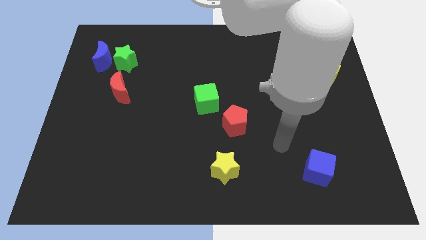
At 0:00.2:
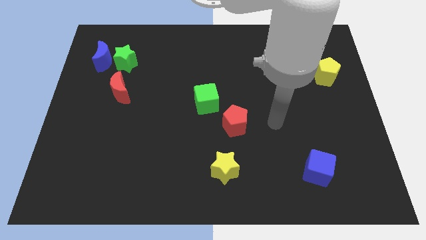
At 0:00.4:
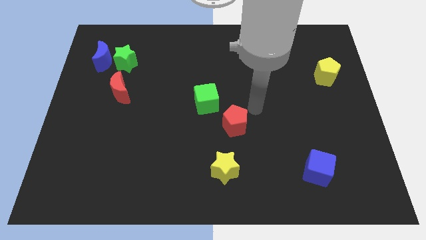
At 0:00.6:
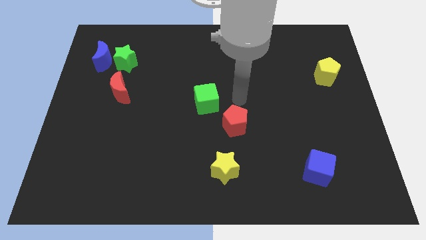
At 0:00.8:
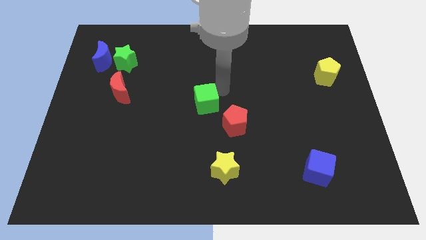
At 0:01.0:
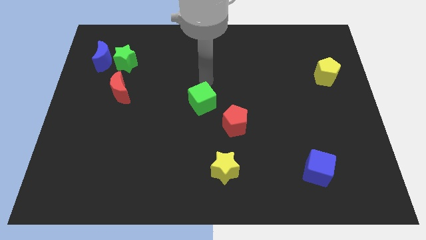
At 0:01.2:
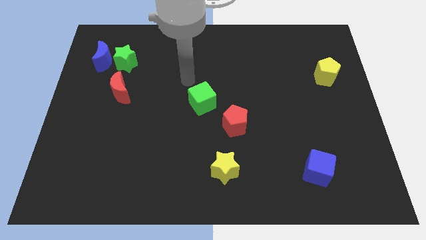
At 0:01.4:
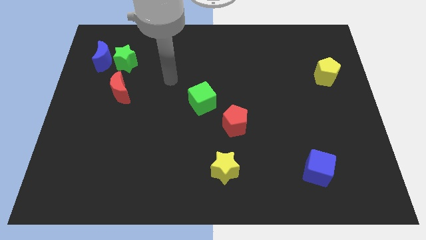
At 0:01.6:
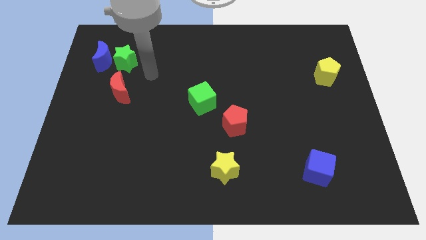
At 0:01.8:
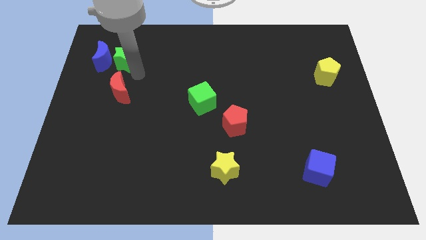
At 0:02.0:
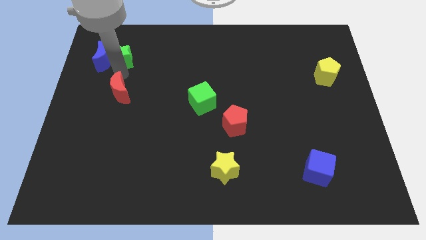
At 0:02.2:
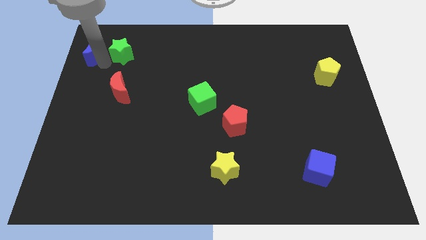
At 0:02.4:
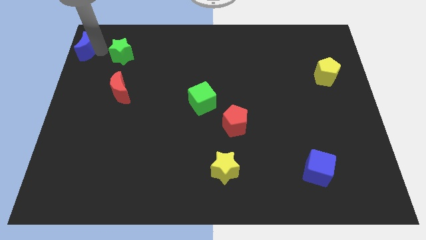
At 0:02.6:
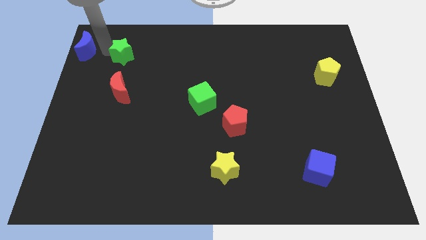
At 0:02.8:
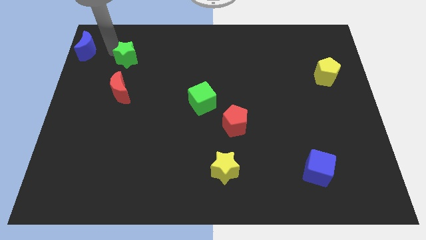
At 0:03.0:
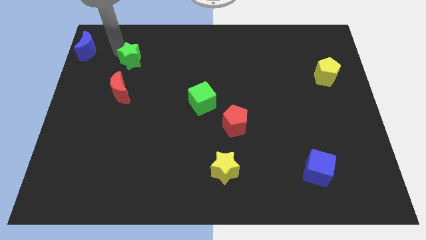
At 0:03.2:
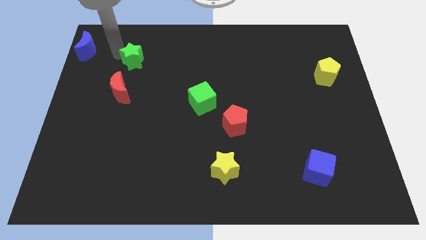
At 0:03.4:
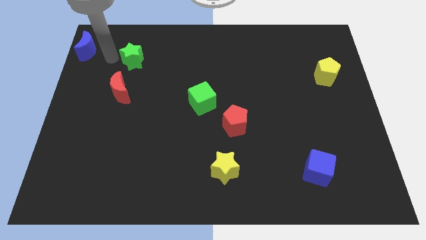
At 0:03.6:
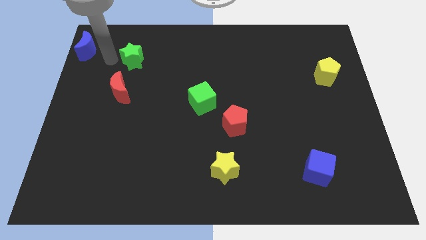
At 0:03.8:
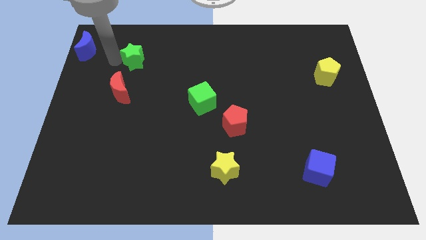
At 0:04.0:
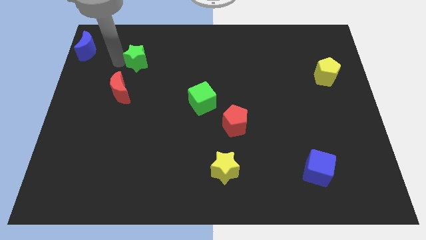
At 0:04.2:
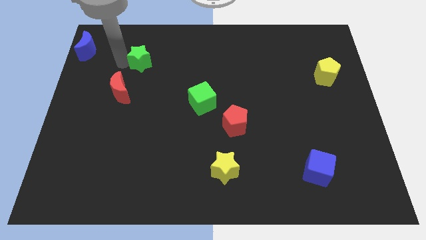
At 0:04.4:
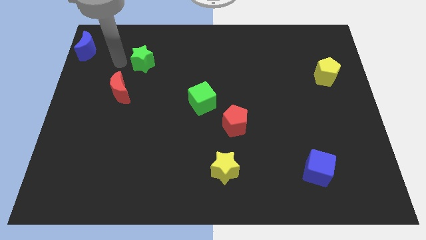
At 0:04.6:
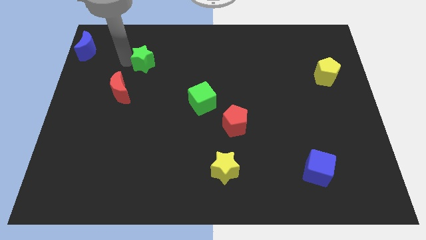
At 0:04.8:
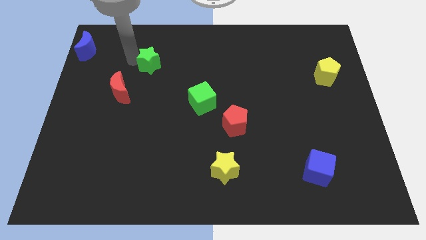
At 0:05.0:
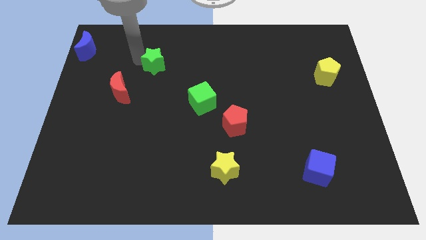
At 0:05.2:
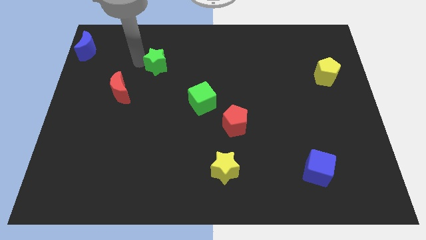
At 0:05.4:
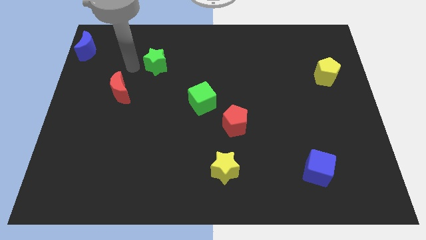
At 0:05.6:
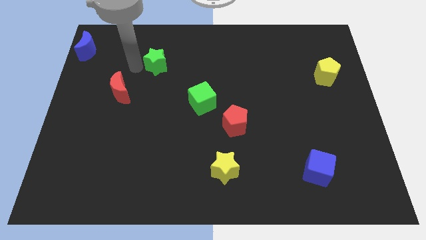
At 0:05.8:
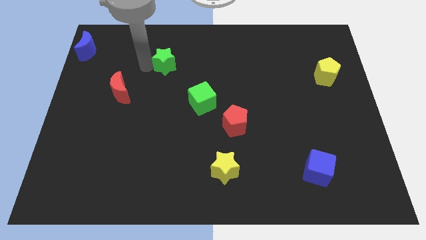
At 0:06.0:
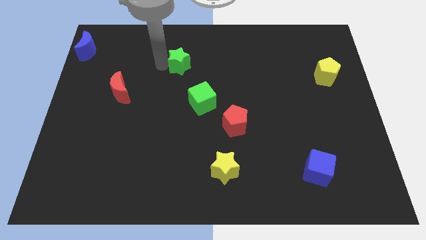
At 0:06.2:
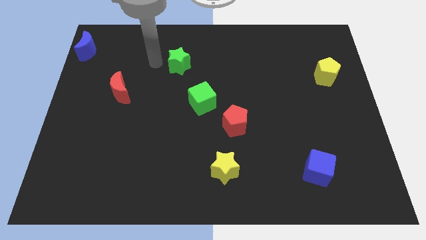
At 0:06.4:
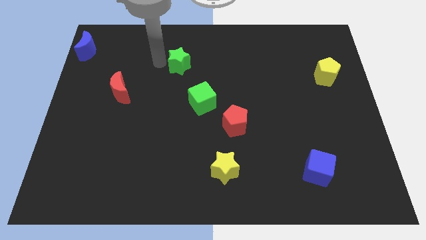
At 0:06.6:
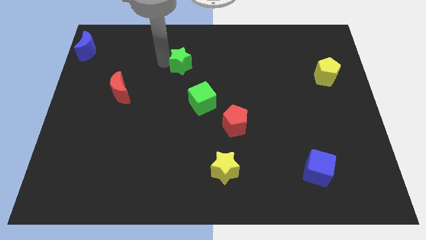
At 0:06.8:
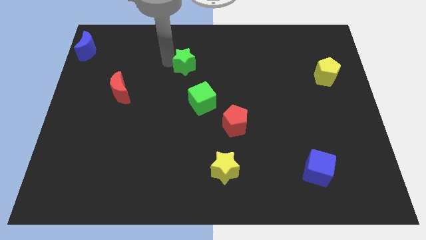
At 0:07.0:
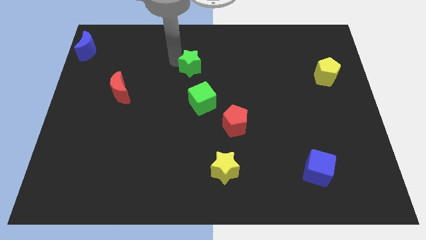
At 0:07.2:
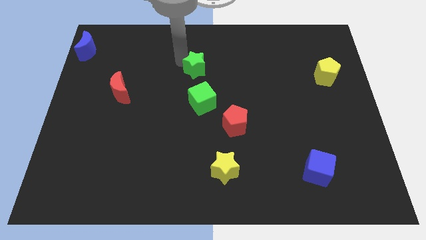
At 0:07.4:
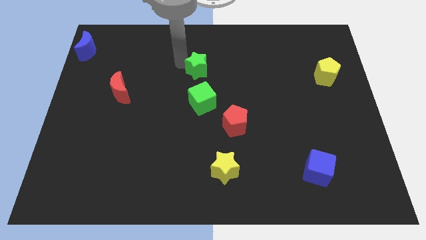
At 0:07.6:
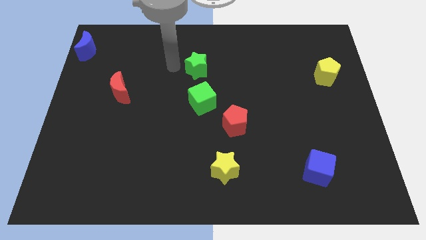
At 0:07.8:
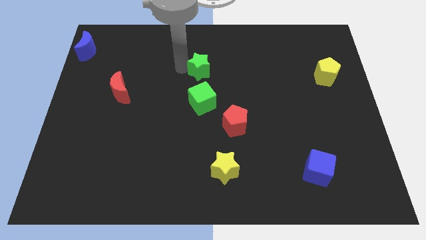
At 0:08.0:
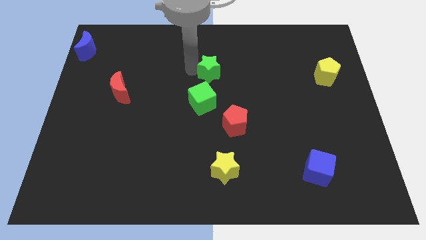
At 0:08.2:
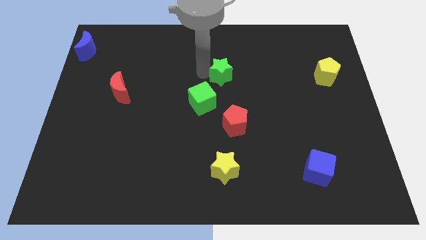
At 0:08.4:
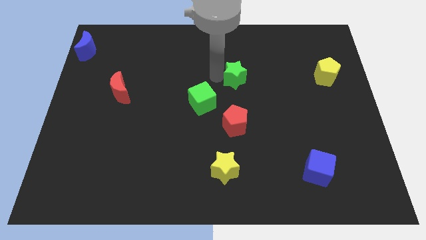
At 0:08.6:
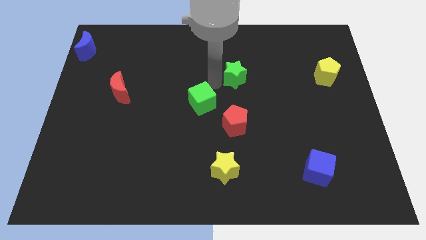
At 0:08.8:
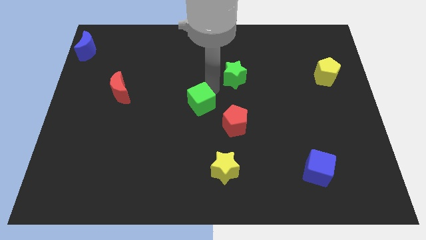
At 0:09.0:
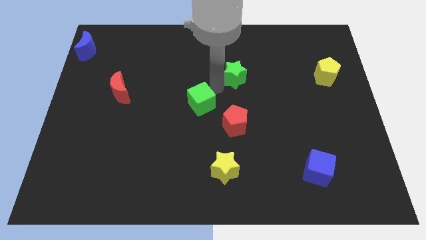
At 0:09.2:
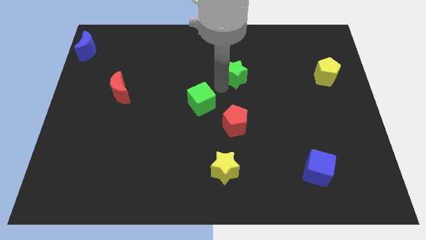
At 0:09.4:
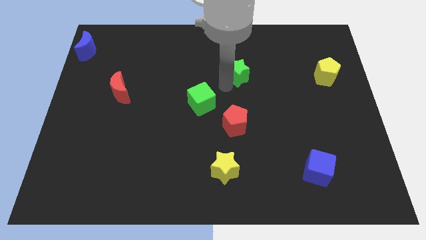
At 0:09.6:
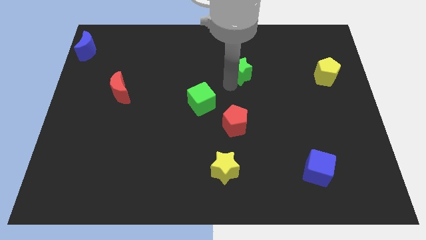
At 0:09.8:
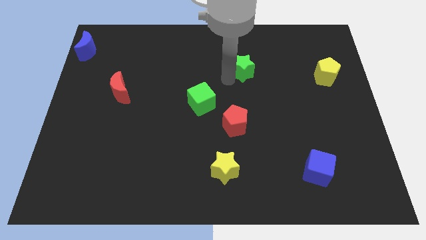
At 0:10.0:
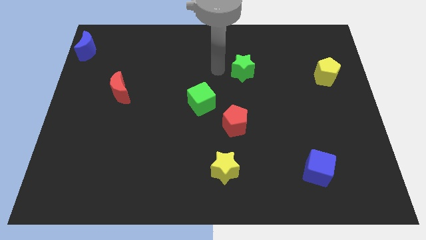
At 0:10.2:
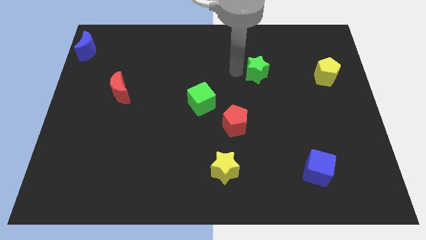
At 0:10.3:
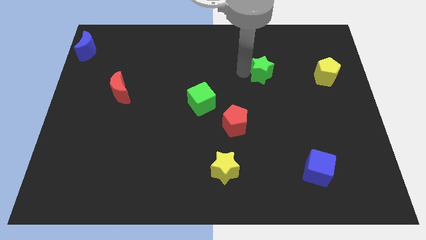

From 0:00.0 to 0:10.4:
put the green star left of the yellow pentagon

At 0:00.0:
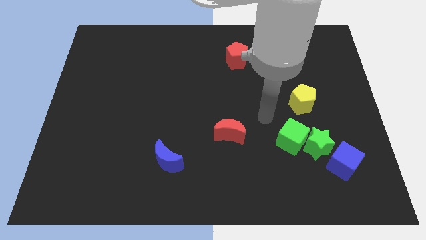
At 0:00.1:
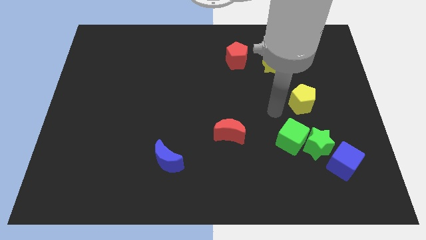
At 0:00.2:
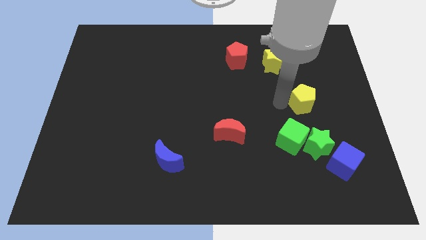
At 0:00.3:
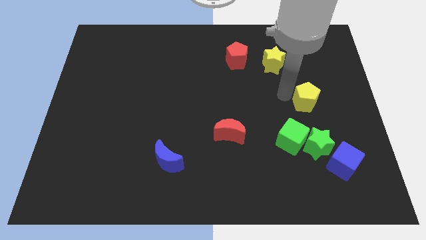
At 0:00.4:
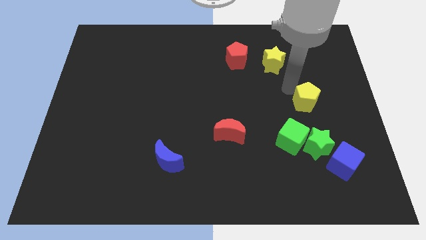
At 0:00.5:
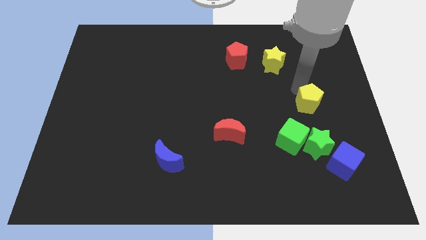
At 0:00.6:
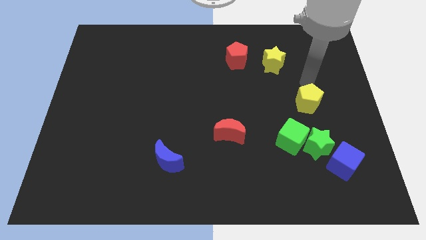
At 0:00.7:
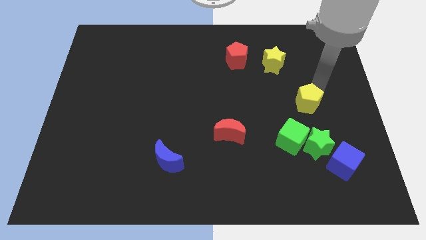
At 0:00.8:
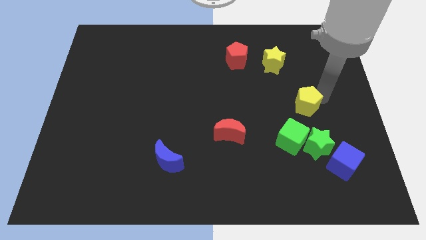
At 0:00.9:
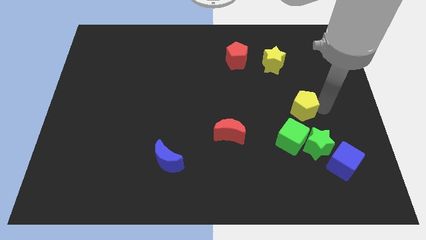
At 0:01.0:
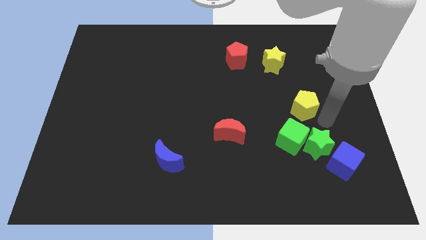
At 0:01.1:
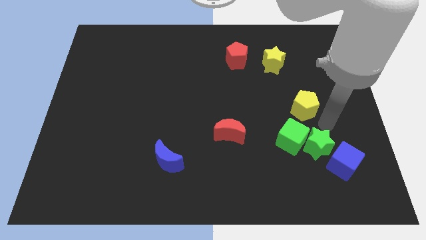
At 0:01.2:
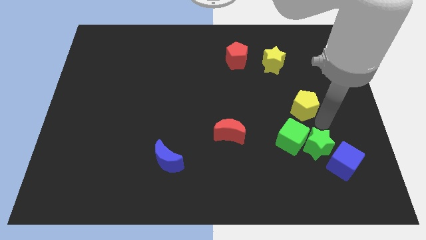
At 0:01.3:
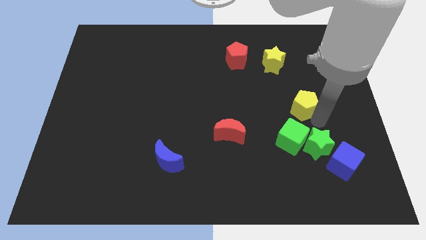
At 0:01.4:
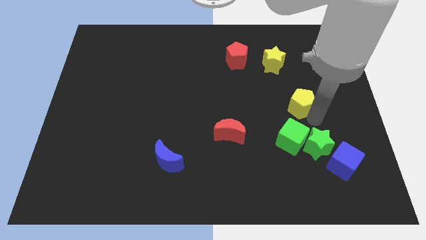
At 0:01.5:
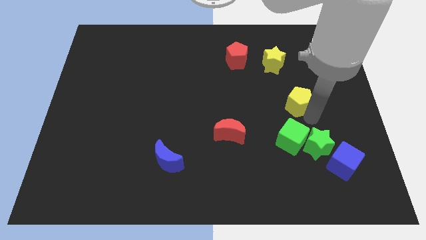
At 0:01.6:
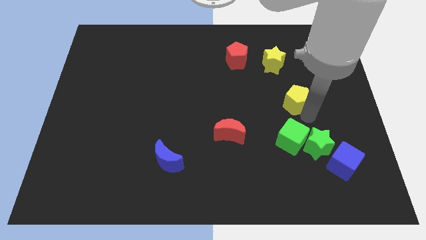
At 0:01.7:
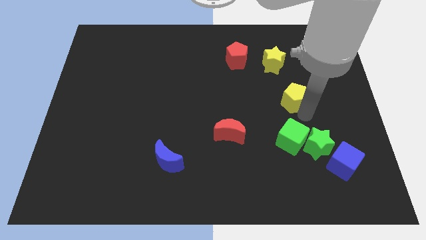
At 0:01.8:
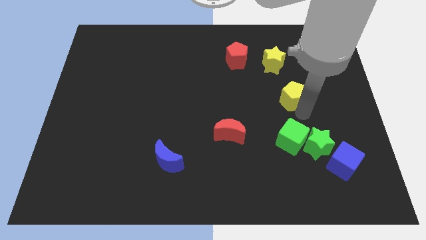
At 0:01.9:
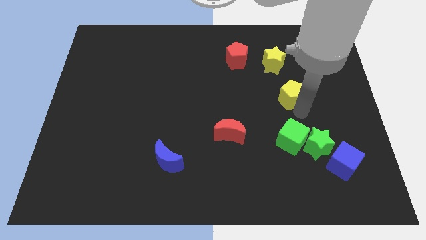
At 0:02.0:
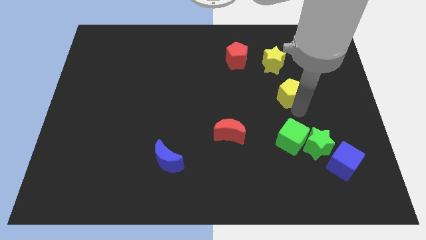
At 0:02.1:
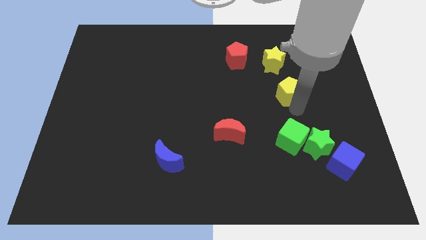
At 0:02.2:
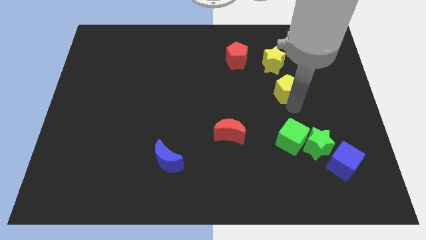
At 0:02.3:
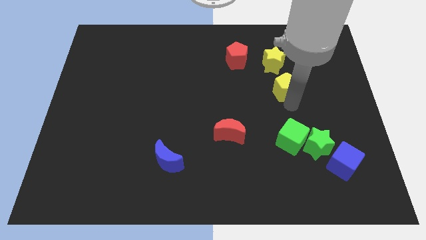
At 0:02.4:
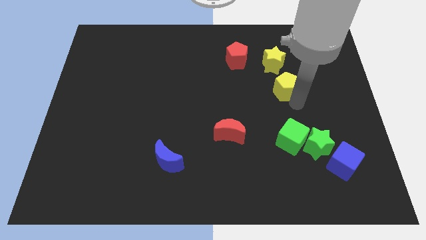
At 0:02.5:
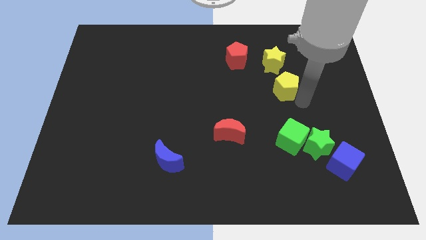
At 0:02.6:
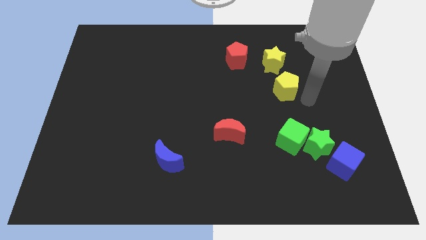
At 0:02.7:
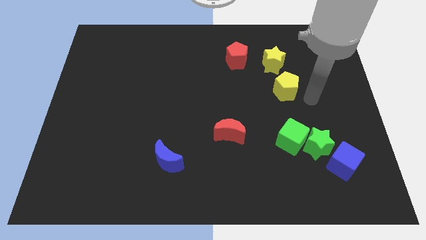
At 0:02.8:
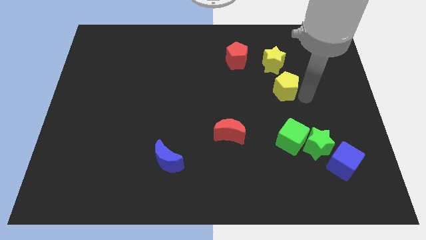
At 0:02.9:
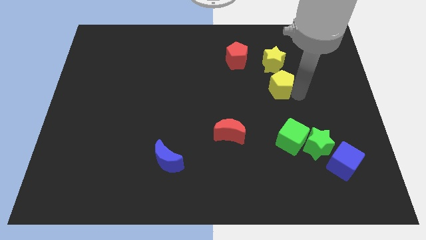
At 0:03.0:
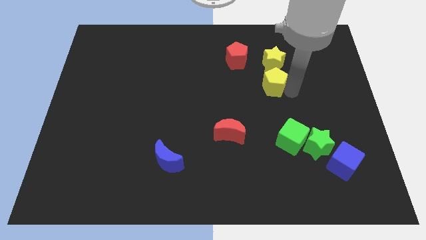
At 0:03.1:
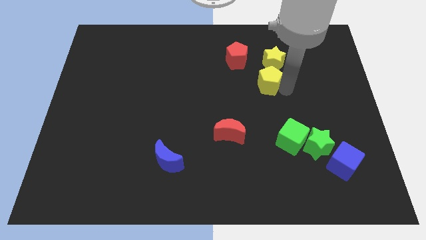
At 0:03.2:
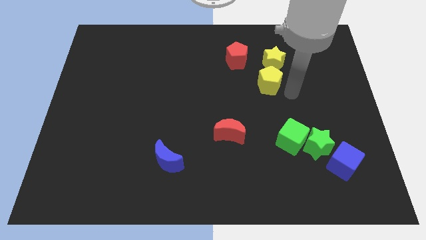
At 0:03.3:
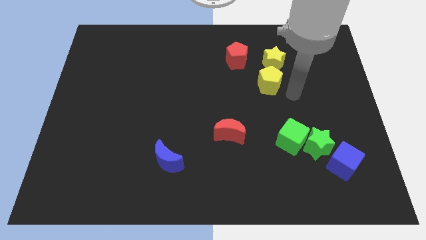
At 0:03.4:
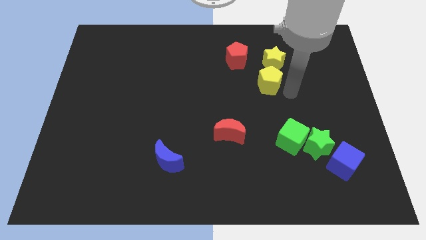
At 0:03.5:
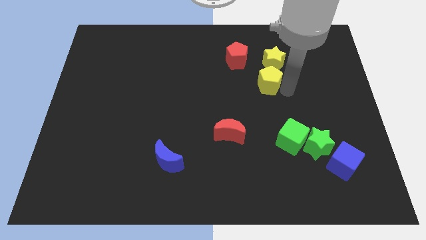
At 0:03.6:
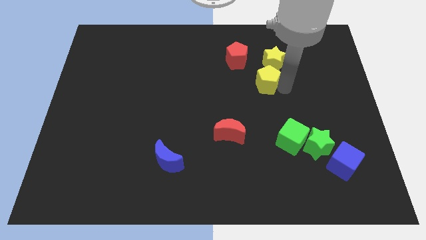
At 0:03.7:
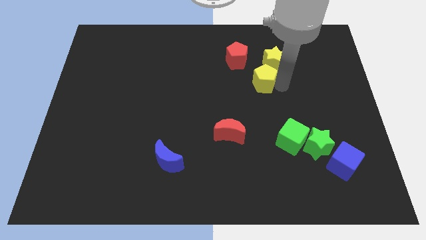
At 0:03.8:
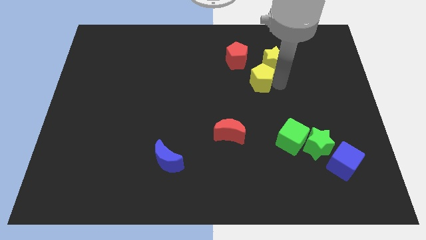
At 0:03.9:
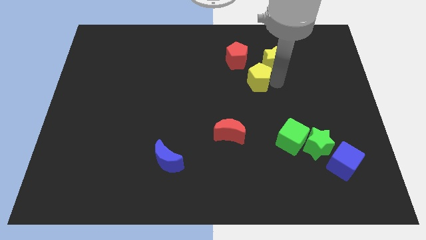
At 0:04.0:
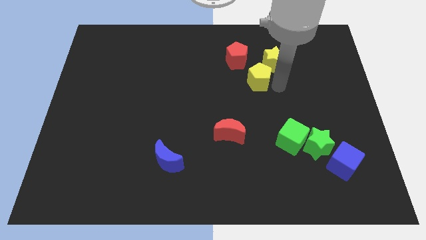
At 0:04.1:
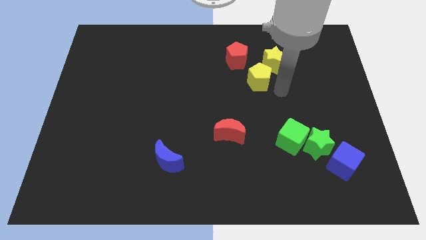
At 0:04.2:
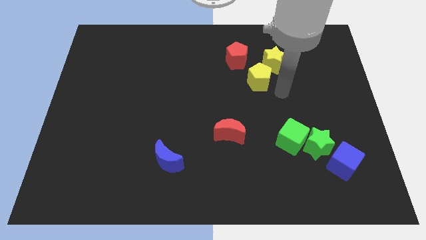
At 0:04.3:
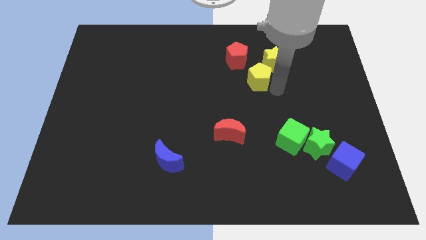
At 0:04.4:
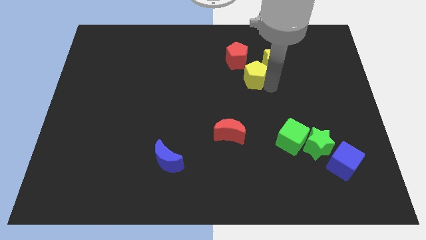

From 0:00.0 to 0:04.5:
move the yellow pentagon left of the yellow star
